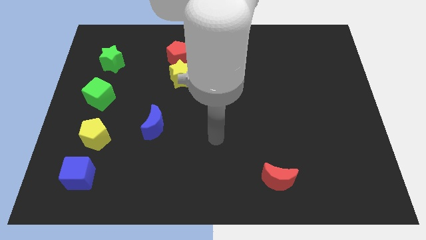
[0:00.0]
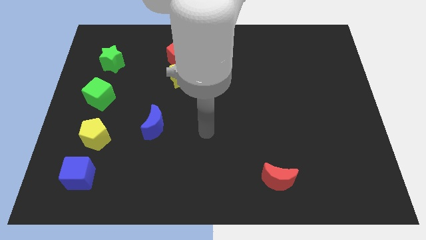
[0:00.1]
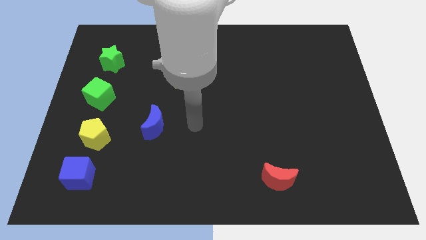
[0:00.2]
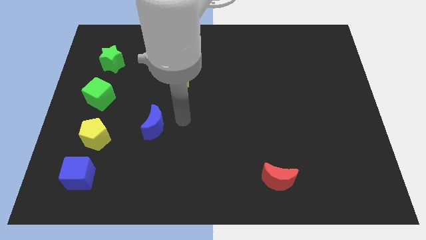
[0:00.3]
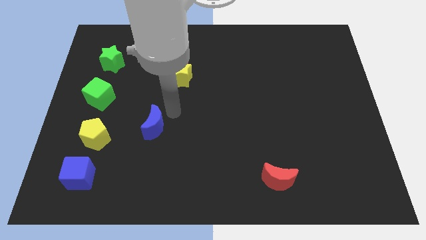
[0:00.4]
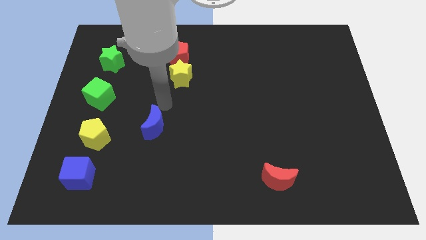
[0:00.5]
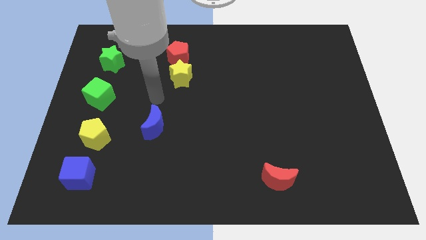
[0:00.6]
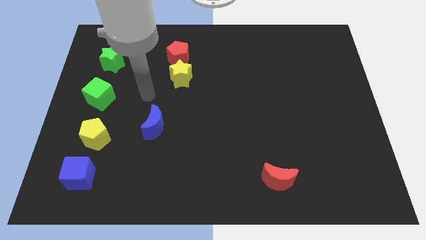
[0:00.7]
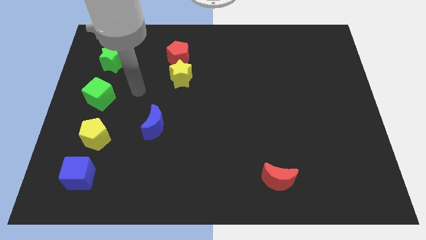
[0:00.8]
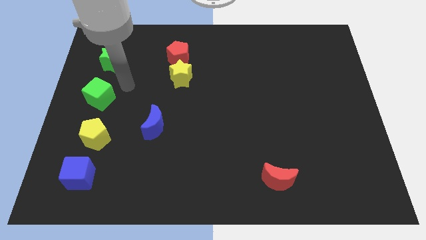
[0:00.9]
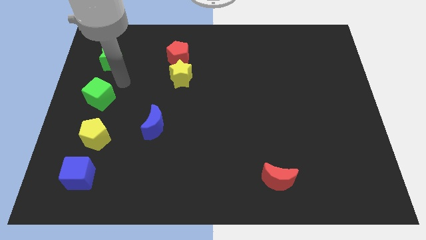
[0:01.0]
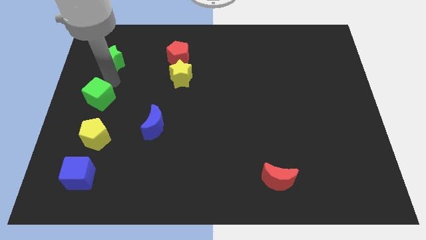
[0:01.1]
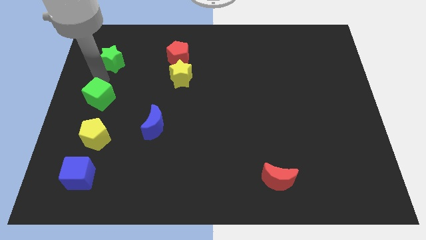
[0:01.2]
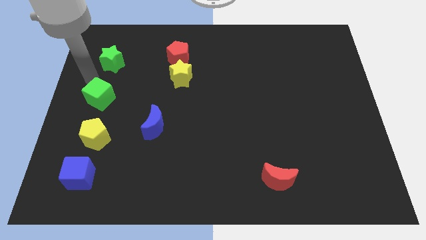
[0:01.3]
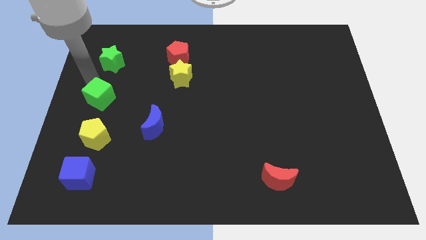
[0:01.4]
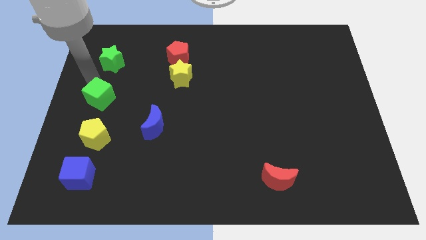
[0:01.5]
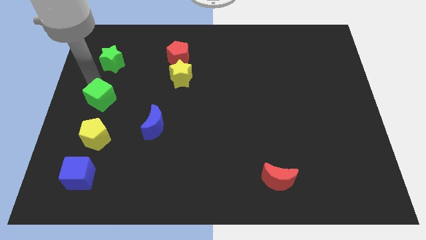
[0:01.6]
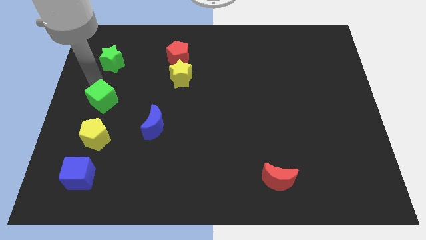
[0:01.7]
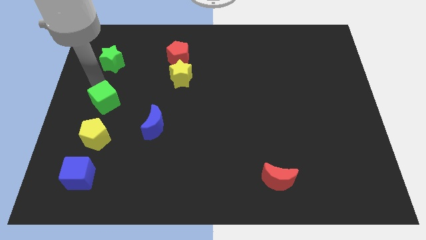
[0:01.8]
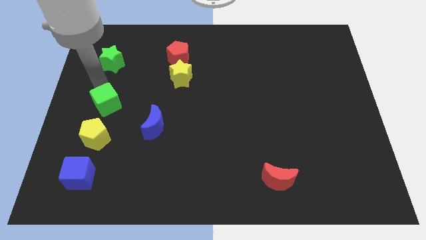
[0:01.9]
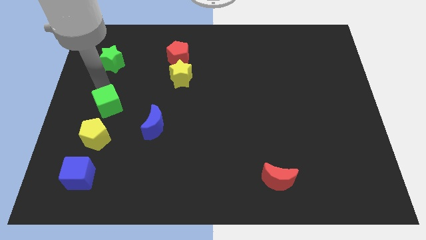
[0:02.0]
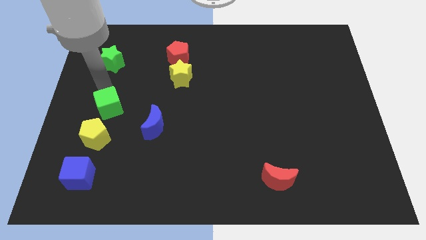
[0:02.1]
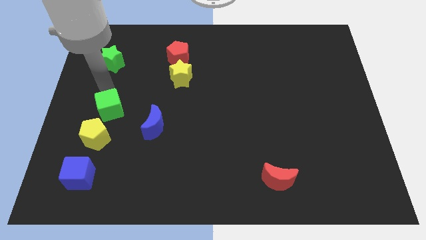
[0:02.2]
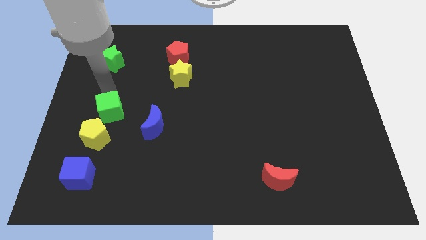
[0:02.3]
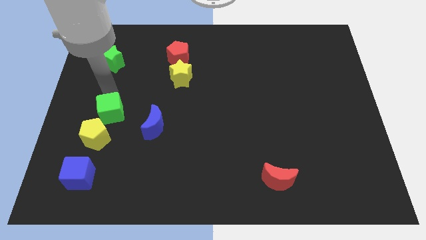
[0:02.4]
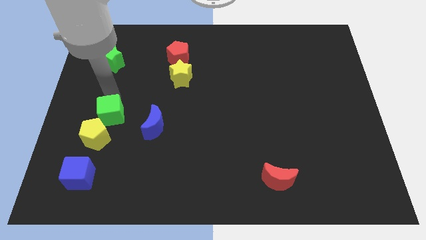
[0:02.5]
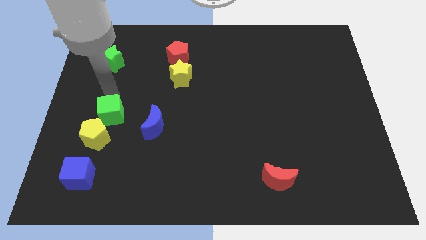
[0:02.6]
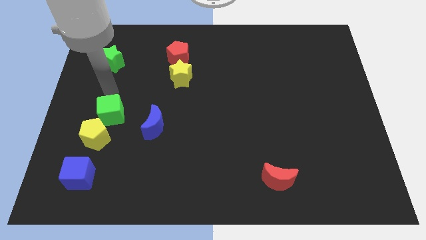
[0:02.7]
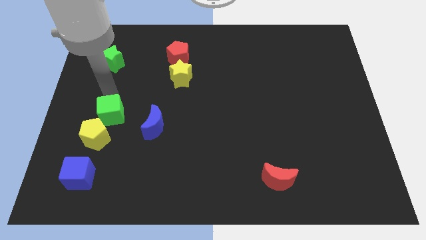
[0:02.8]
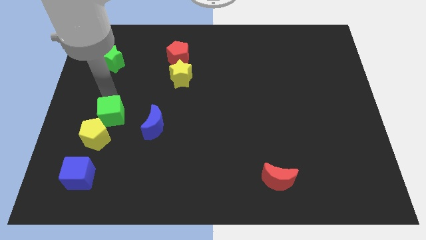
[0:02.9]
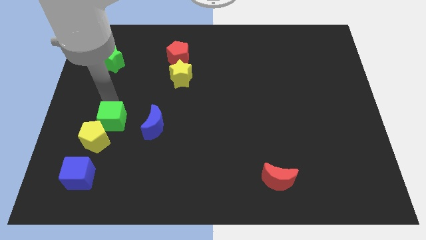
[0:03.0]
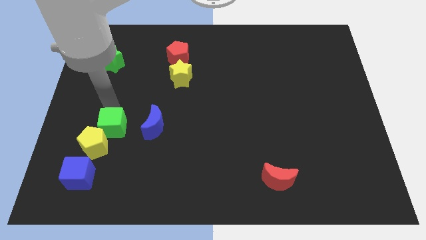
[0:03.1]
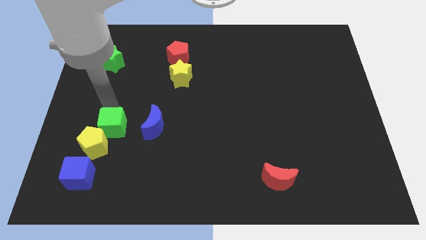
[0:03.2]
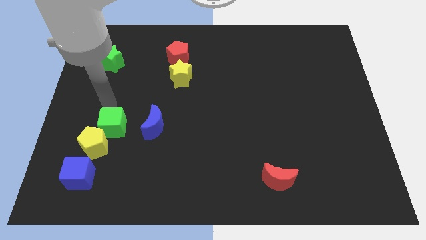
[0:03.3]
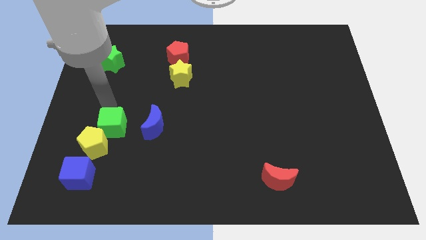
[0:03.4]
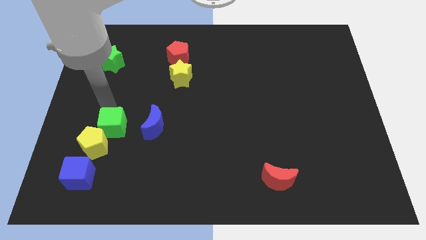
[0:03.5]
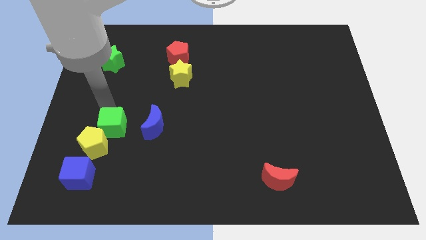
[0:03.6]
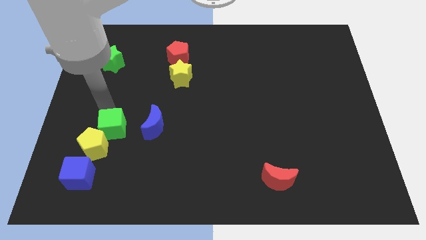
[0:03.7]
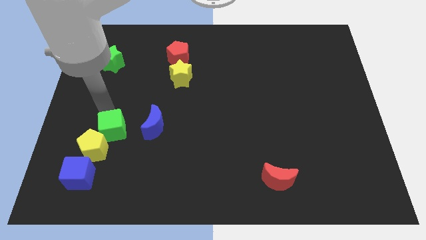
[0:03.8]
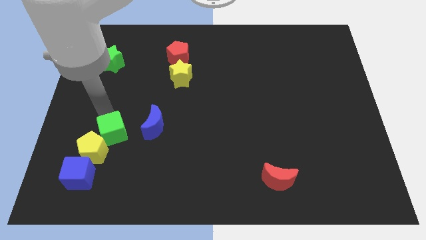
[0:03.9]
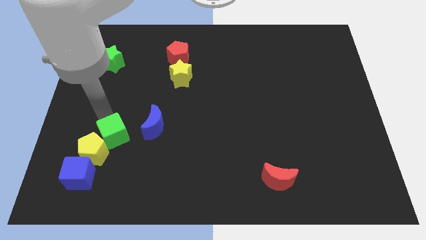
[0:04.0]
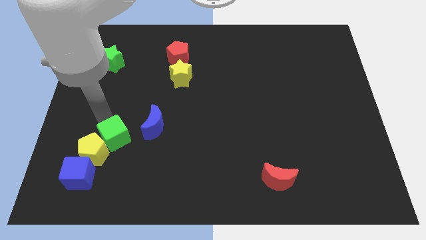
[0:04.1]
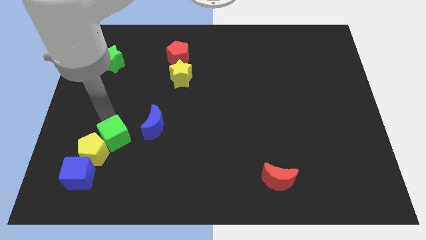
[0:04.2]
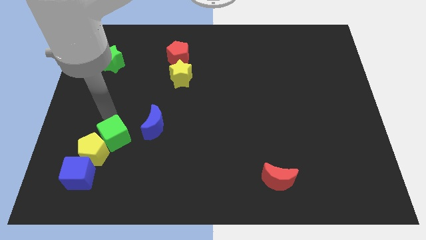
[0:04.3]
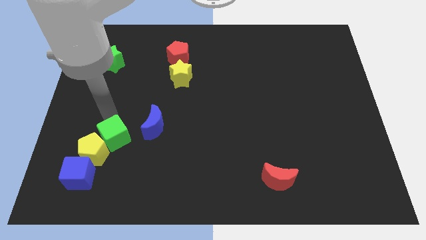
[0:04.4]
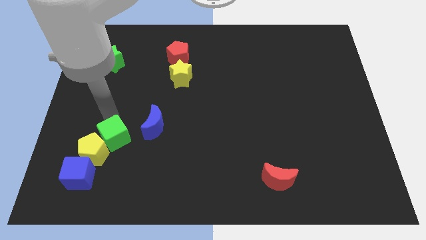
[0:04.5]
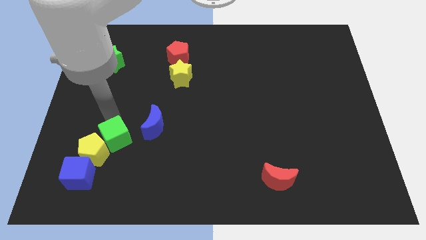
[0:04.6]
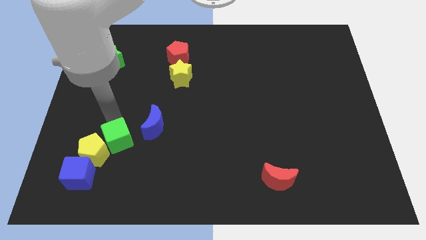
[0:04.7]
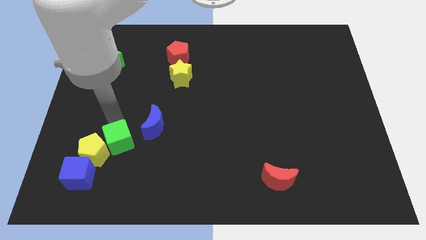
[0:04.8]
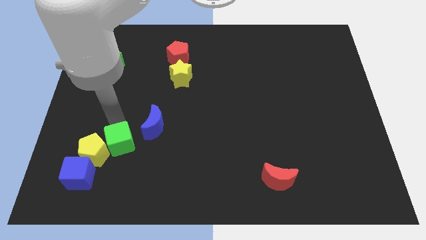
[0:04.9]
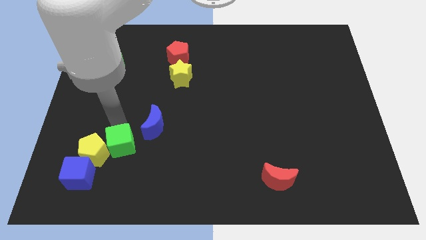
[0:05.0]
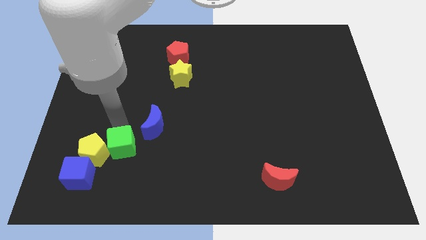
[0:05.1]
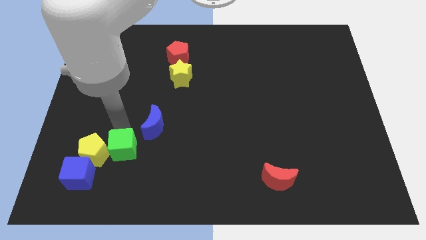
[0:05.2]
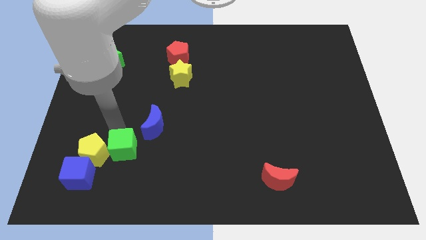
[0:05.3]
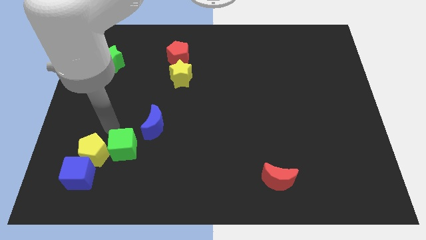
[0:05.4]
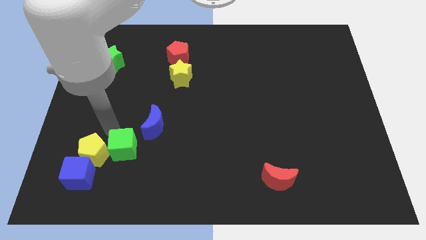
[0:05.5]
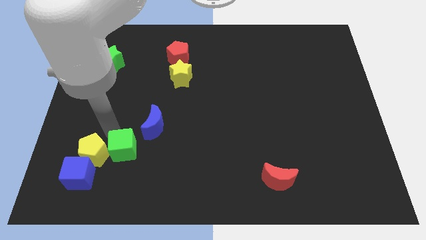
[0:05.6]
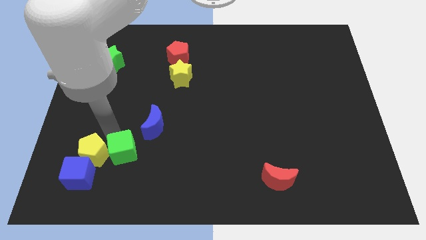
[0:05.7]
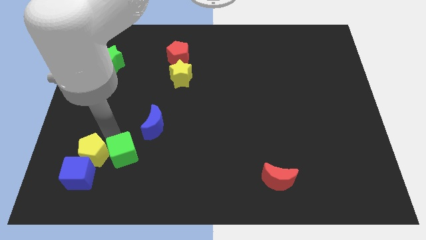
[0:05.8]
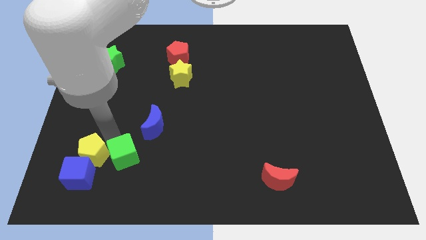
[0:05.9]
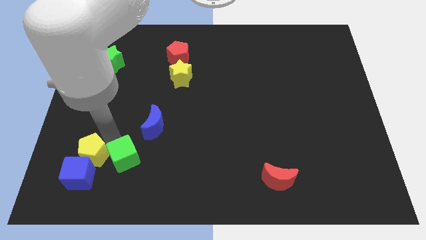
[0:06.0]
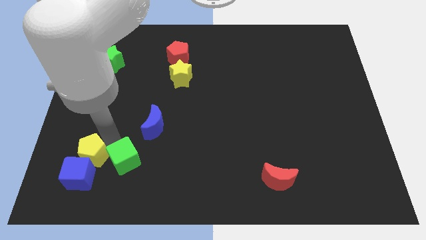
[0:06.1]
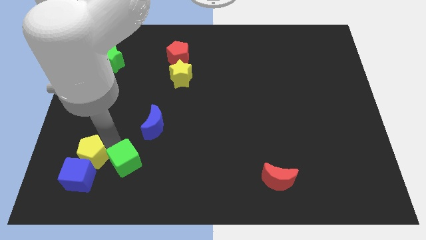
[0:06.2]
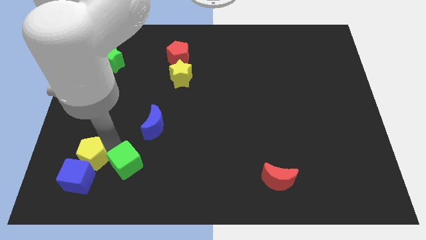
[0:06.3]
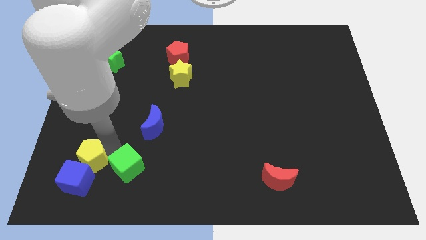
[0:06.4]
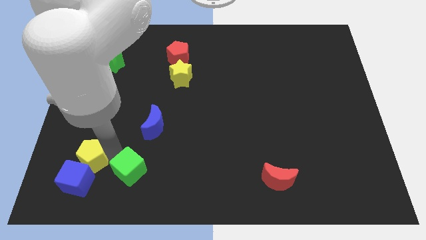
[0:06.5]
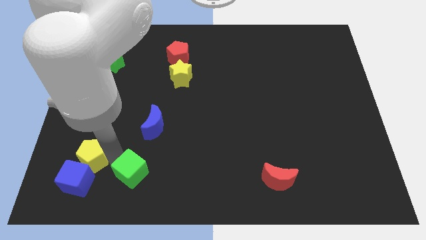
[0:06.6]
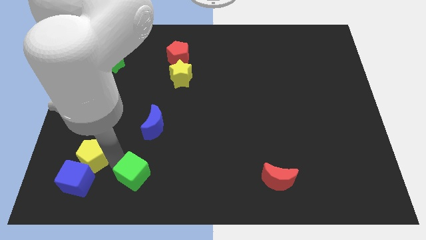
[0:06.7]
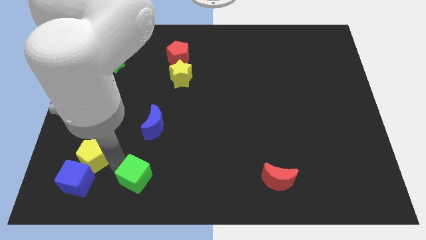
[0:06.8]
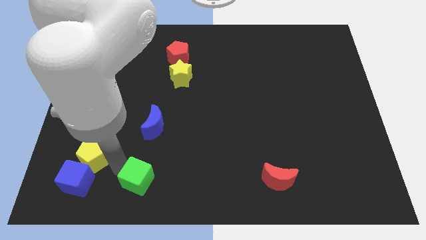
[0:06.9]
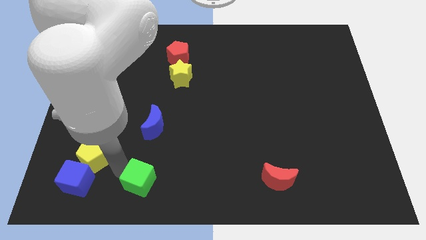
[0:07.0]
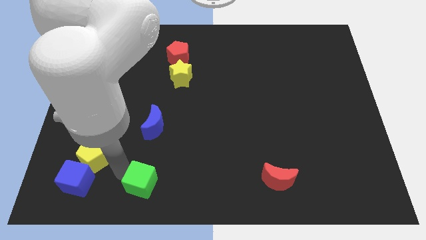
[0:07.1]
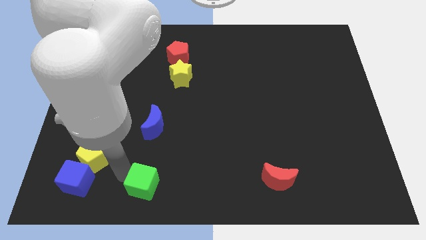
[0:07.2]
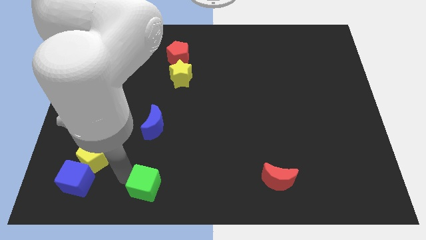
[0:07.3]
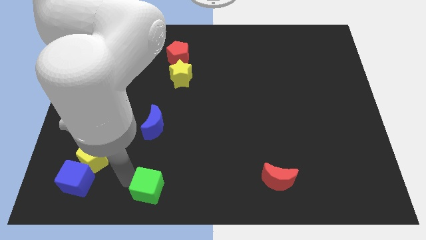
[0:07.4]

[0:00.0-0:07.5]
put the green cube to the bottom side
